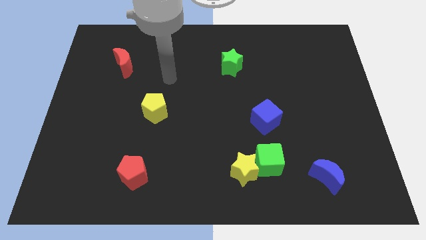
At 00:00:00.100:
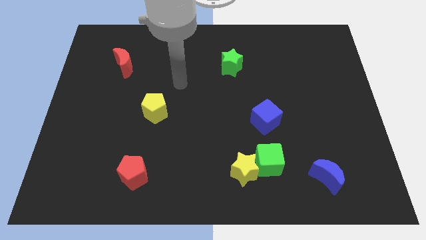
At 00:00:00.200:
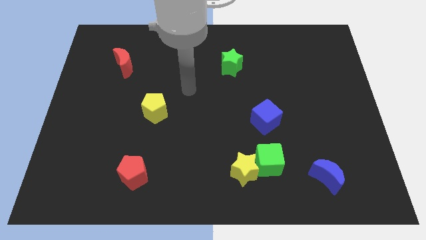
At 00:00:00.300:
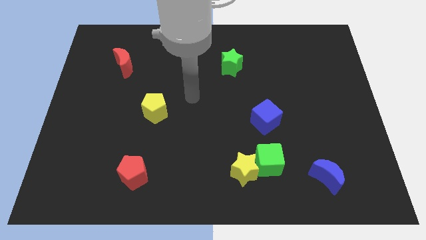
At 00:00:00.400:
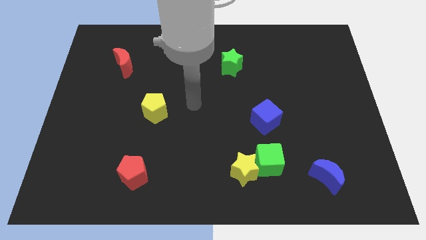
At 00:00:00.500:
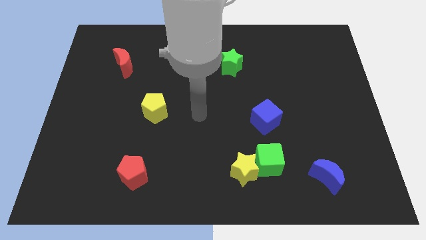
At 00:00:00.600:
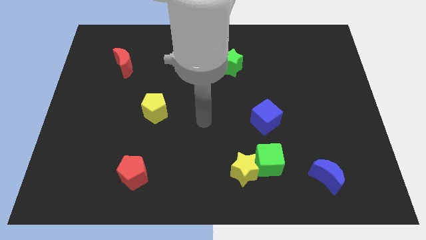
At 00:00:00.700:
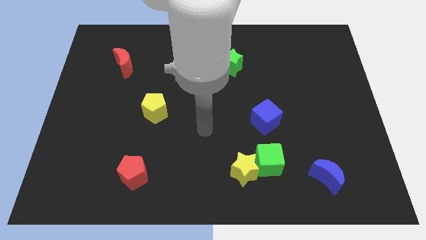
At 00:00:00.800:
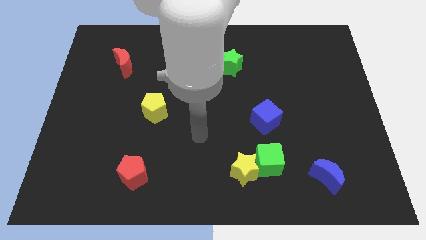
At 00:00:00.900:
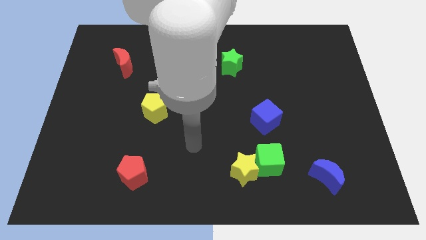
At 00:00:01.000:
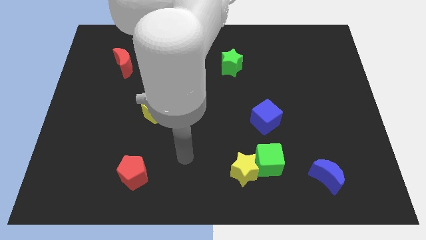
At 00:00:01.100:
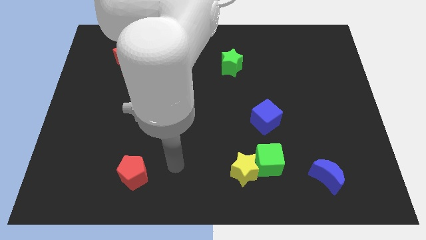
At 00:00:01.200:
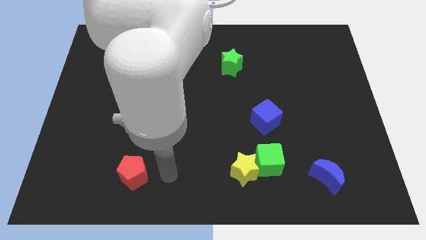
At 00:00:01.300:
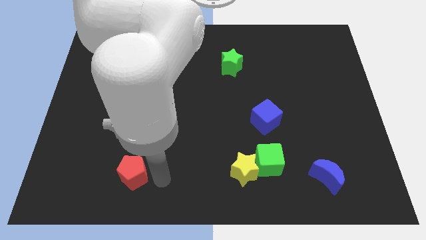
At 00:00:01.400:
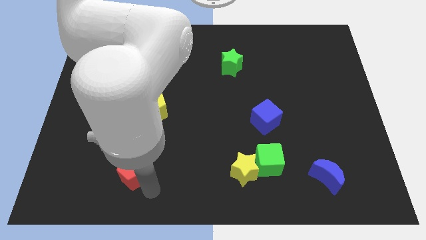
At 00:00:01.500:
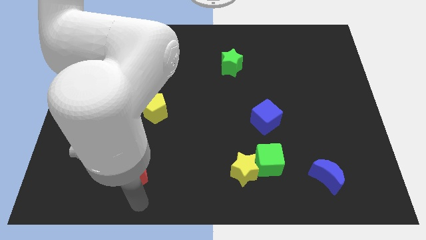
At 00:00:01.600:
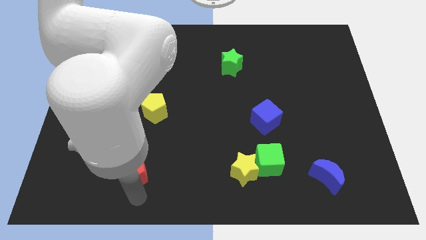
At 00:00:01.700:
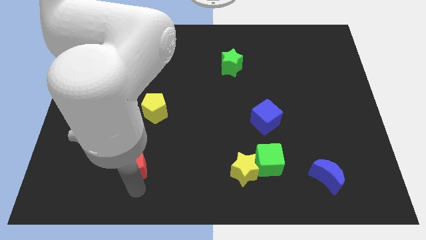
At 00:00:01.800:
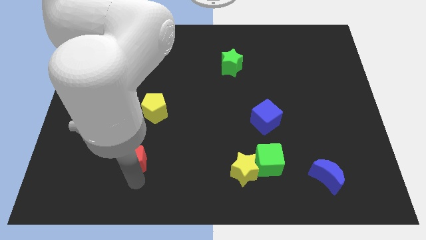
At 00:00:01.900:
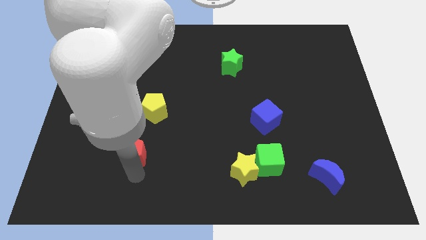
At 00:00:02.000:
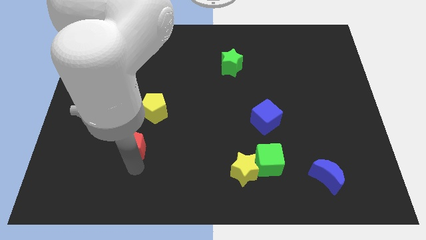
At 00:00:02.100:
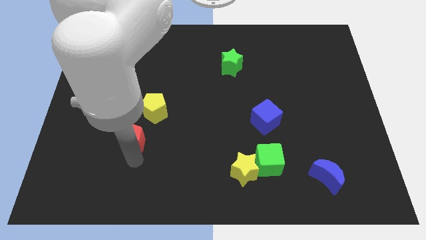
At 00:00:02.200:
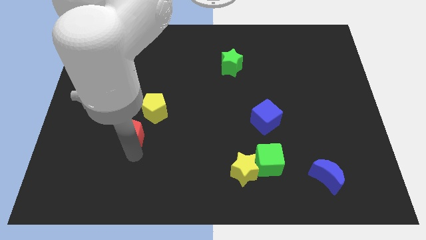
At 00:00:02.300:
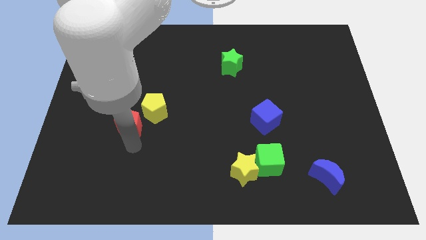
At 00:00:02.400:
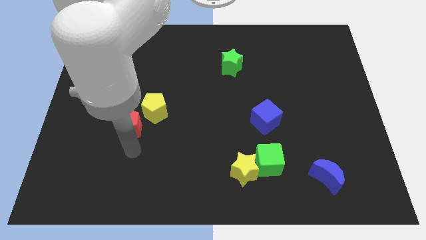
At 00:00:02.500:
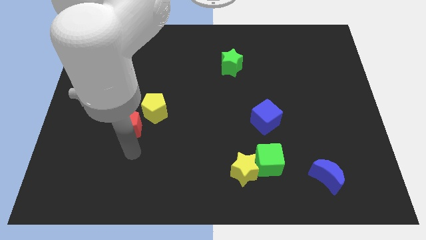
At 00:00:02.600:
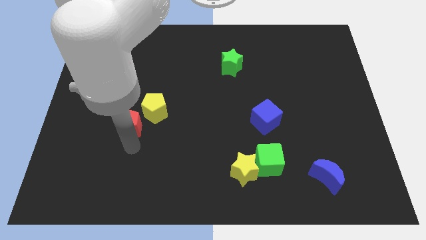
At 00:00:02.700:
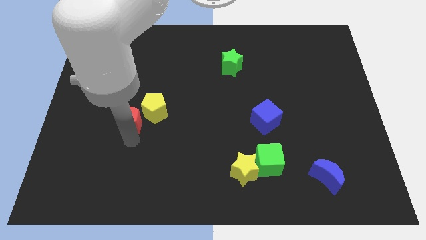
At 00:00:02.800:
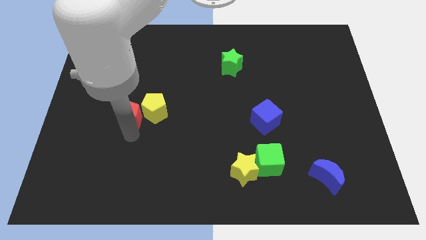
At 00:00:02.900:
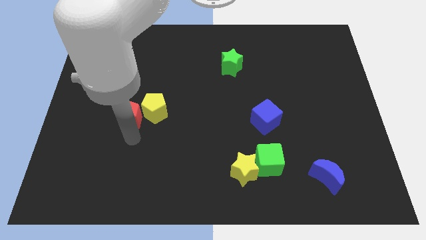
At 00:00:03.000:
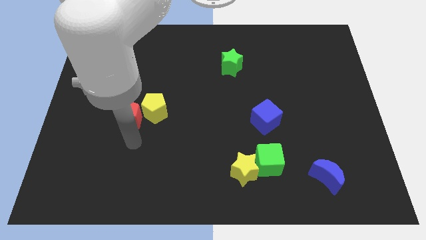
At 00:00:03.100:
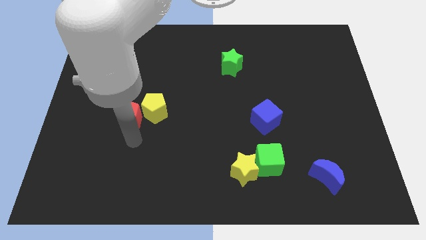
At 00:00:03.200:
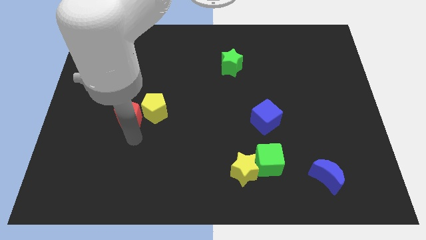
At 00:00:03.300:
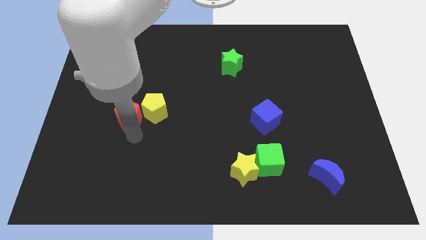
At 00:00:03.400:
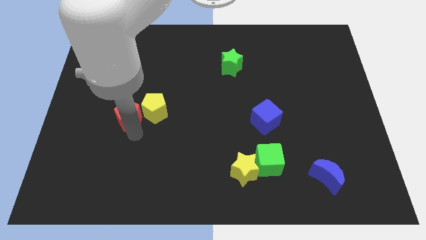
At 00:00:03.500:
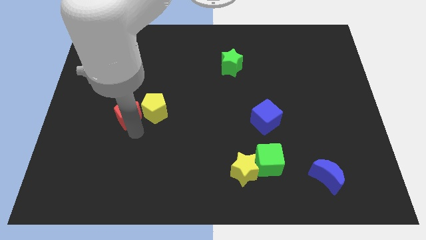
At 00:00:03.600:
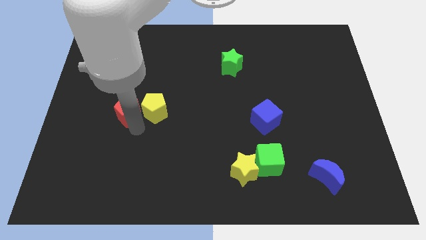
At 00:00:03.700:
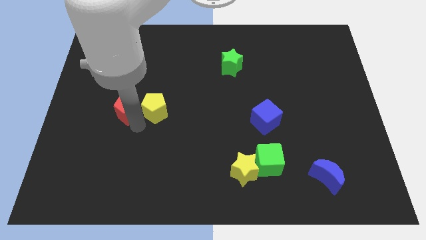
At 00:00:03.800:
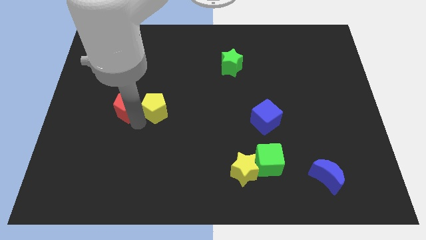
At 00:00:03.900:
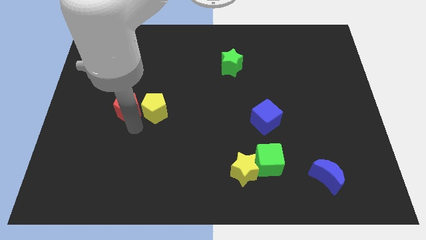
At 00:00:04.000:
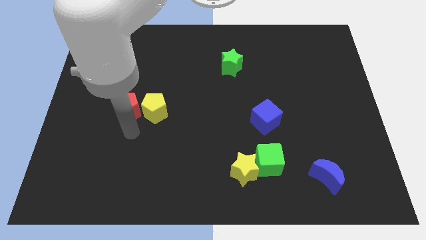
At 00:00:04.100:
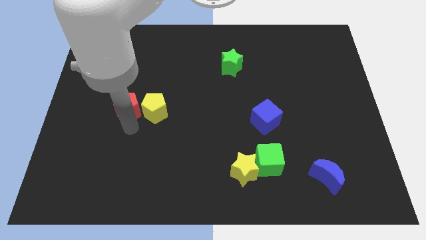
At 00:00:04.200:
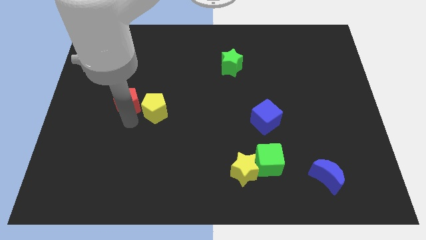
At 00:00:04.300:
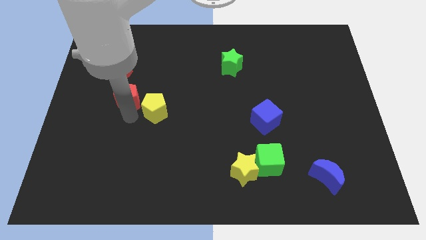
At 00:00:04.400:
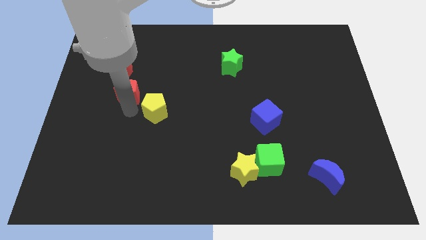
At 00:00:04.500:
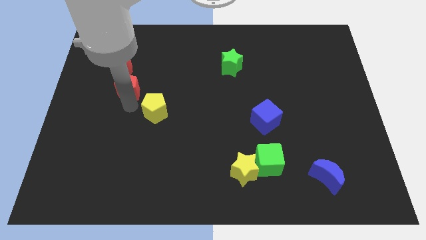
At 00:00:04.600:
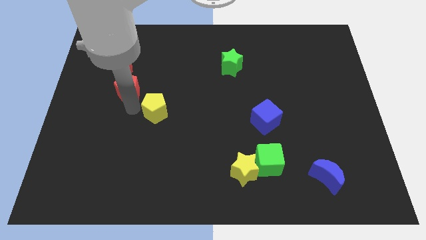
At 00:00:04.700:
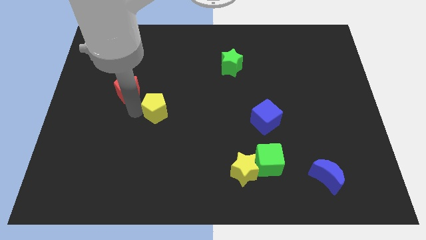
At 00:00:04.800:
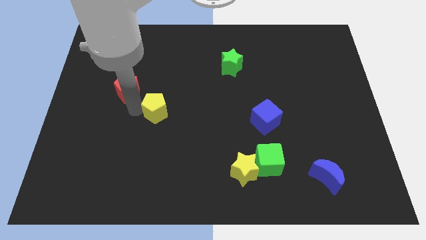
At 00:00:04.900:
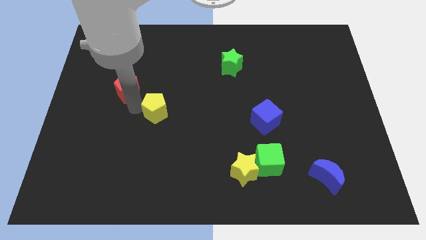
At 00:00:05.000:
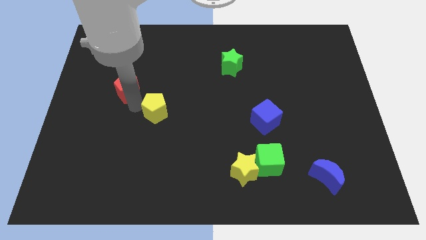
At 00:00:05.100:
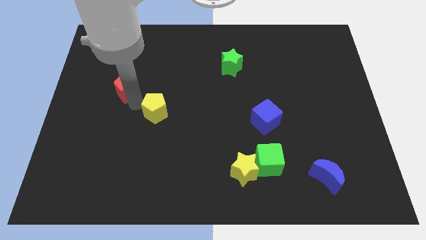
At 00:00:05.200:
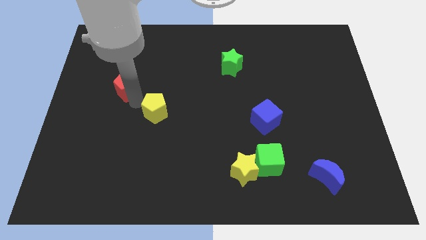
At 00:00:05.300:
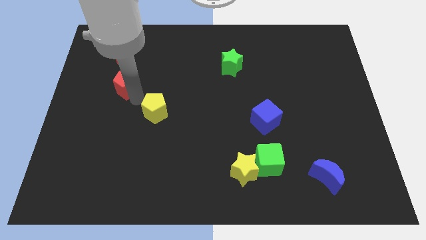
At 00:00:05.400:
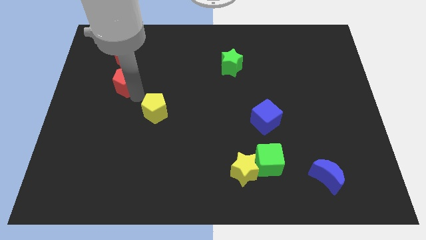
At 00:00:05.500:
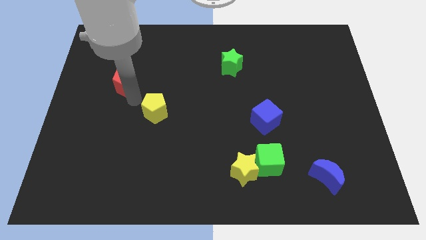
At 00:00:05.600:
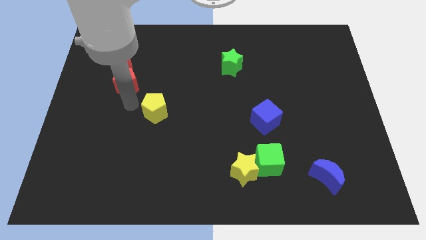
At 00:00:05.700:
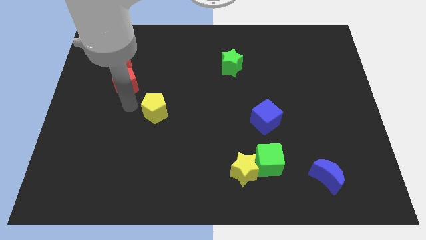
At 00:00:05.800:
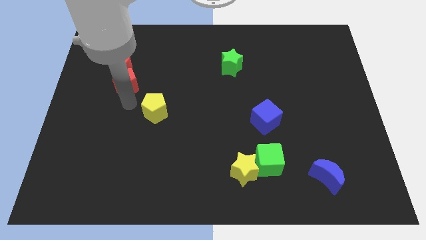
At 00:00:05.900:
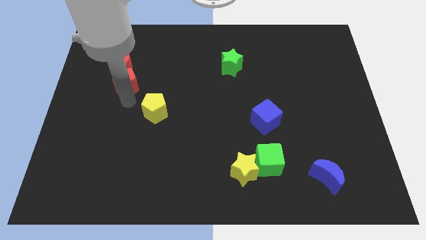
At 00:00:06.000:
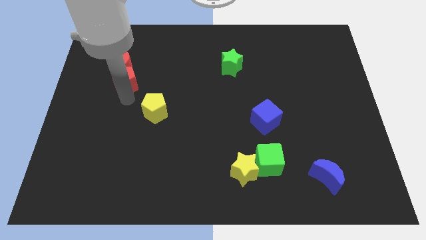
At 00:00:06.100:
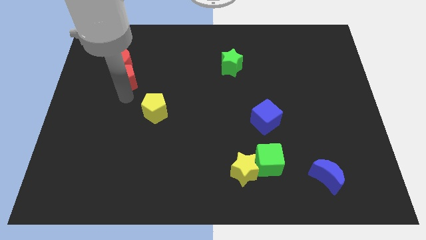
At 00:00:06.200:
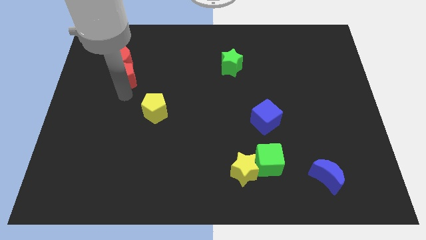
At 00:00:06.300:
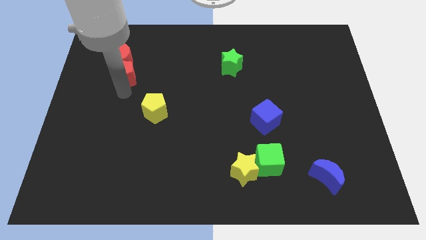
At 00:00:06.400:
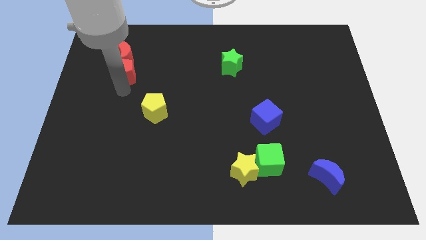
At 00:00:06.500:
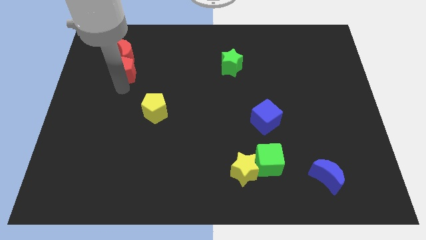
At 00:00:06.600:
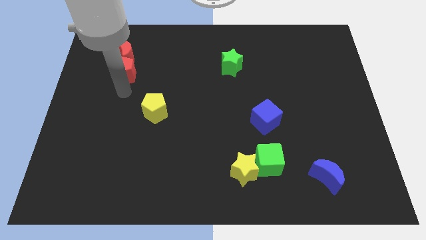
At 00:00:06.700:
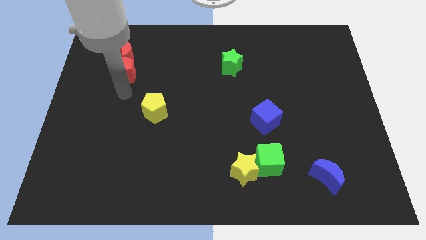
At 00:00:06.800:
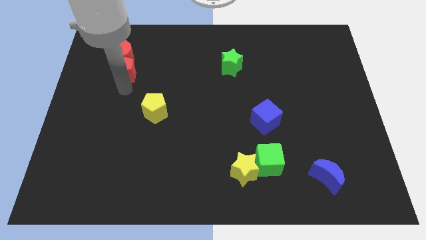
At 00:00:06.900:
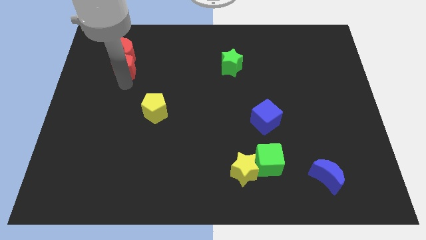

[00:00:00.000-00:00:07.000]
move the red pentagon close to the red moon

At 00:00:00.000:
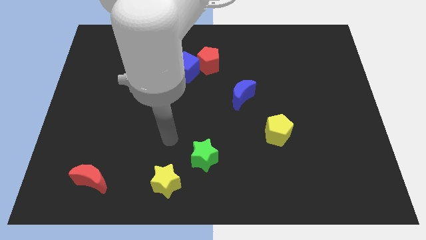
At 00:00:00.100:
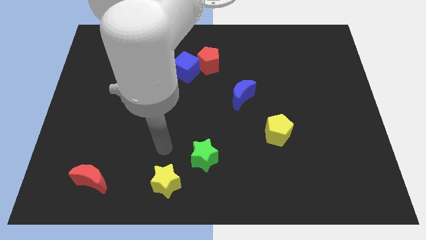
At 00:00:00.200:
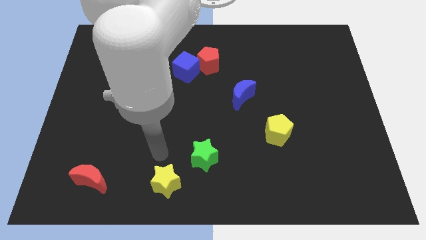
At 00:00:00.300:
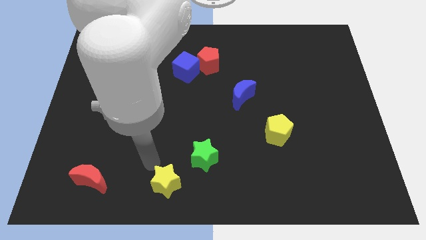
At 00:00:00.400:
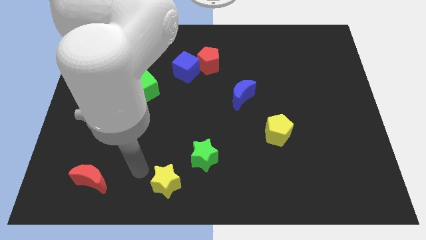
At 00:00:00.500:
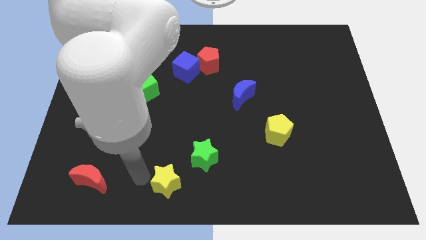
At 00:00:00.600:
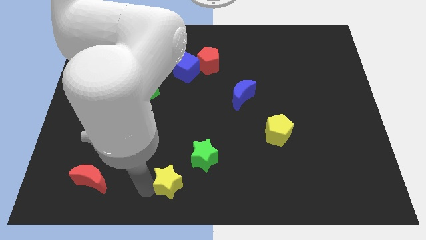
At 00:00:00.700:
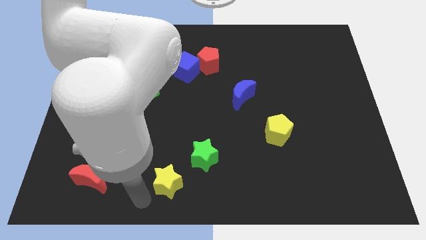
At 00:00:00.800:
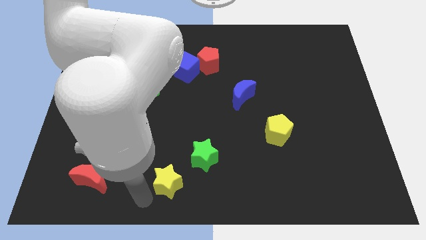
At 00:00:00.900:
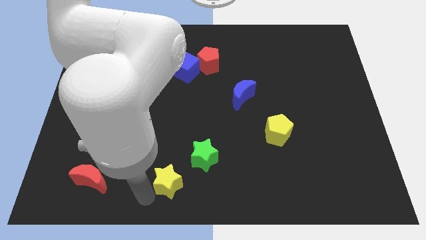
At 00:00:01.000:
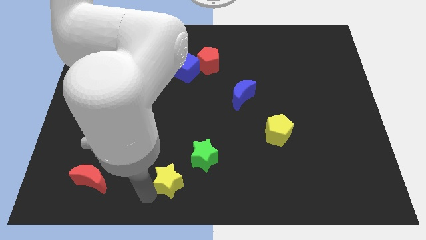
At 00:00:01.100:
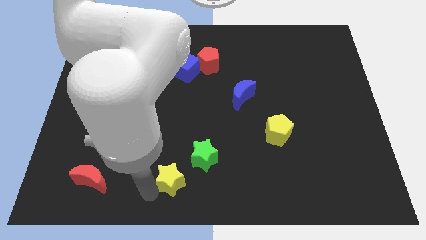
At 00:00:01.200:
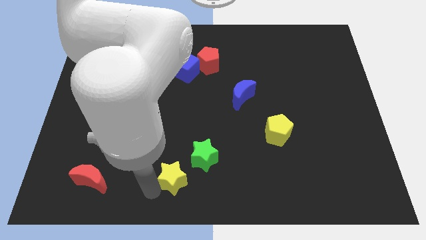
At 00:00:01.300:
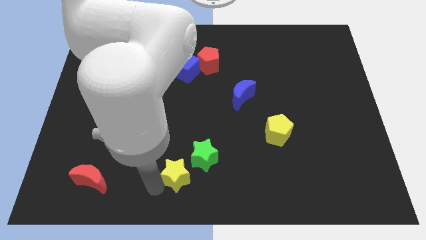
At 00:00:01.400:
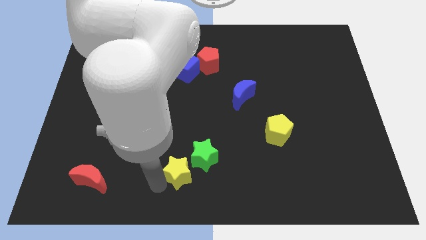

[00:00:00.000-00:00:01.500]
slide the yellow star to the green star
